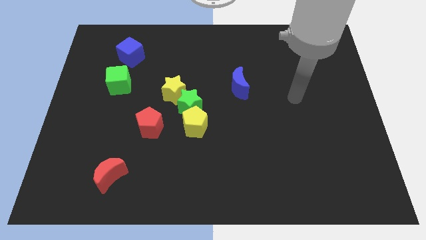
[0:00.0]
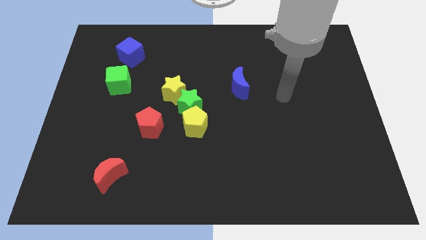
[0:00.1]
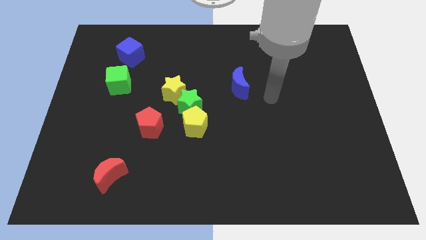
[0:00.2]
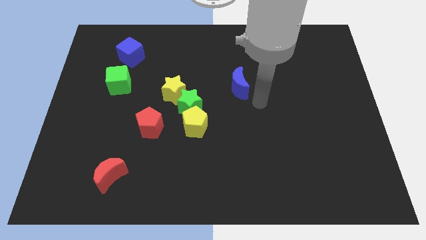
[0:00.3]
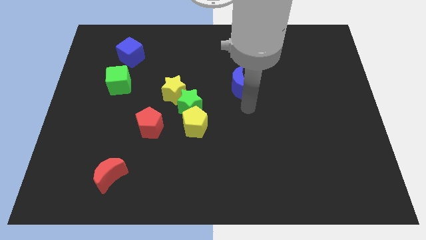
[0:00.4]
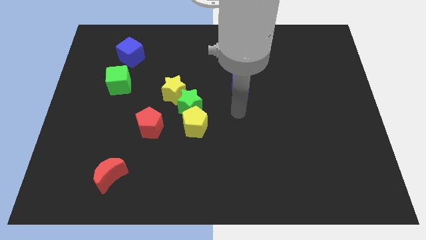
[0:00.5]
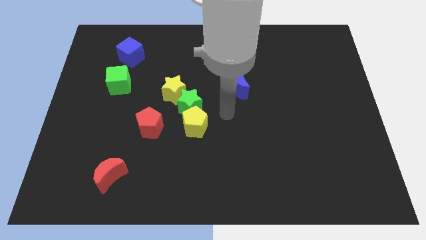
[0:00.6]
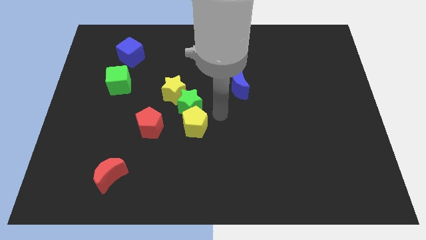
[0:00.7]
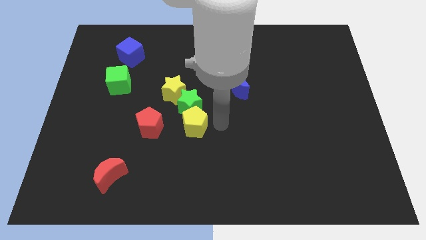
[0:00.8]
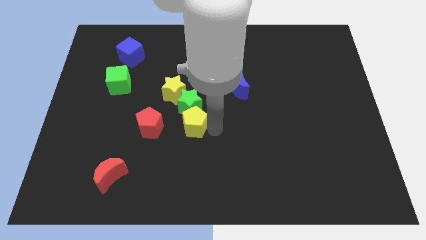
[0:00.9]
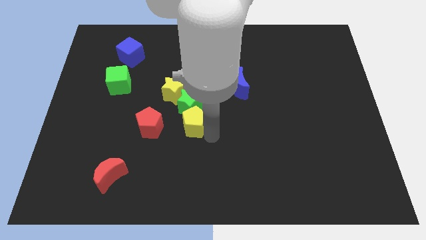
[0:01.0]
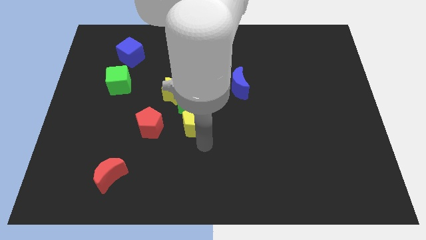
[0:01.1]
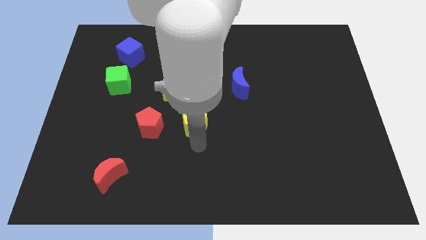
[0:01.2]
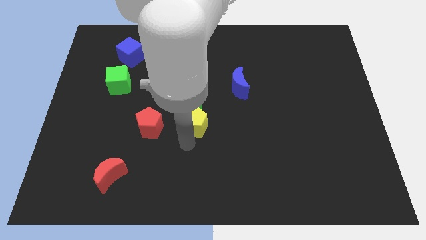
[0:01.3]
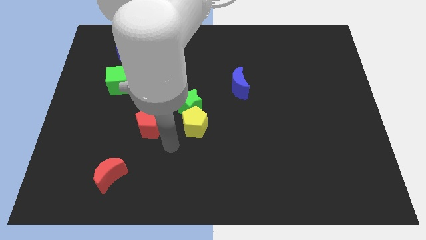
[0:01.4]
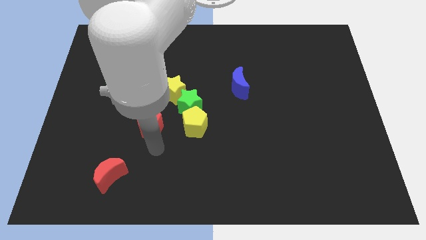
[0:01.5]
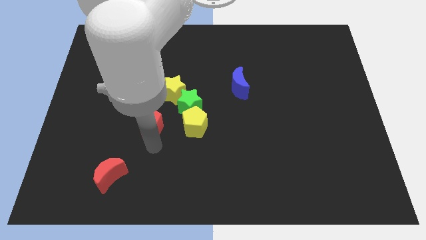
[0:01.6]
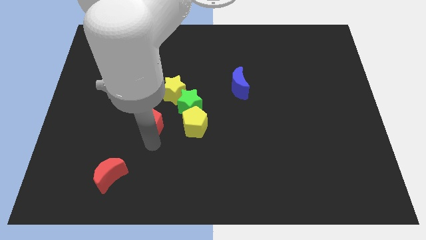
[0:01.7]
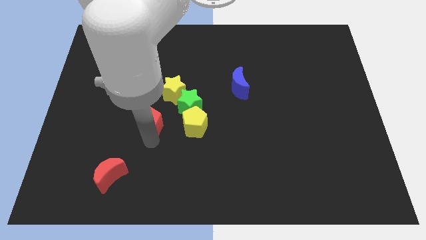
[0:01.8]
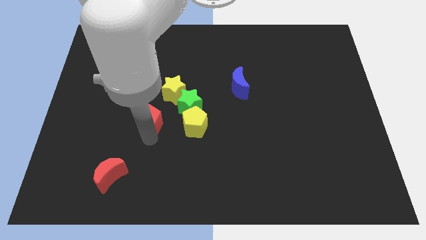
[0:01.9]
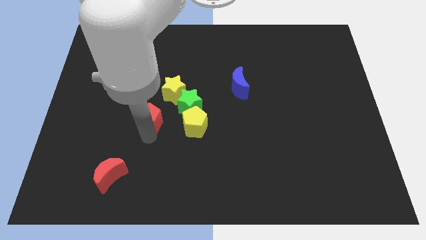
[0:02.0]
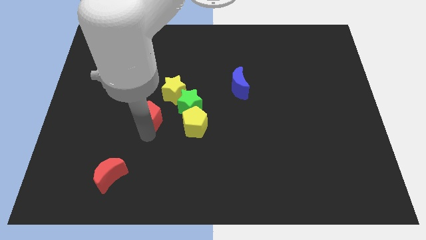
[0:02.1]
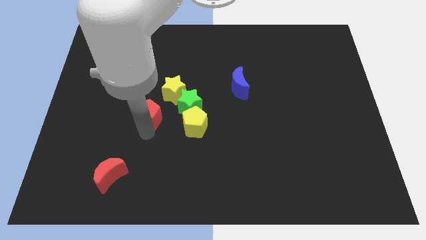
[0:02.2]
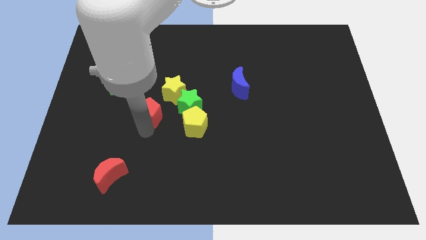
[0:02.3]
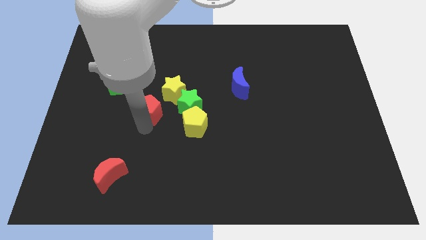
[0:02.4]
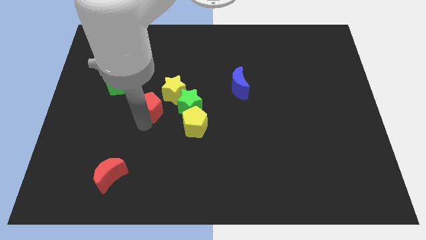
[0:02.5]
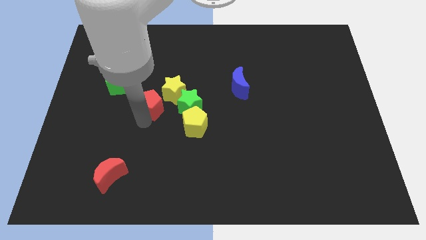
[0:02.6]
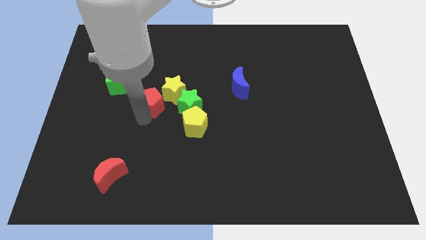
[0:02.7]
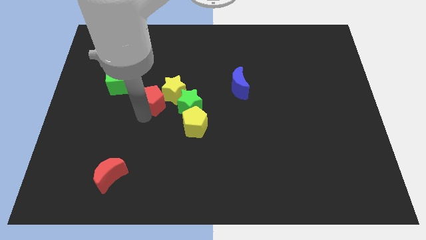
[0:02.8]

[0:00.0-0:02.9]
move the red pentagon a little bit up

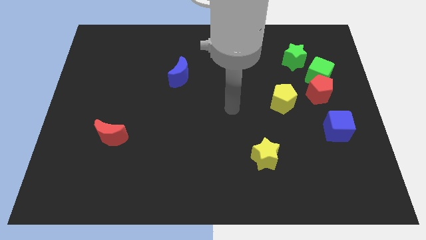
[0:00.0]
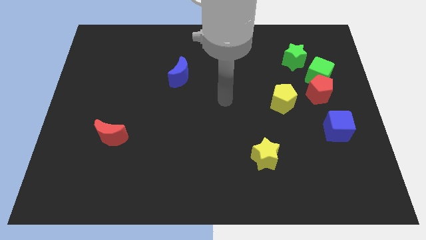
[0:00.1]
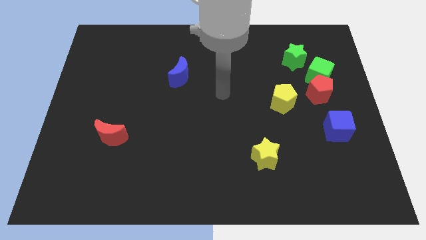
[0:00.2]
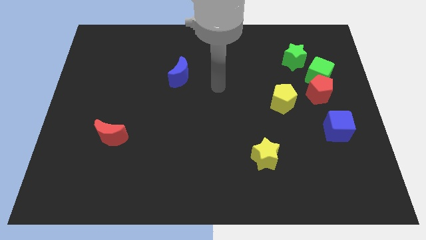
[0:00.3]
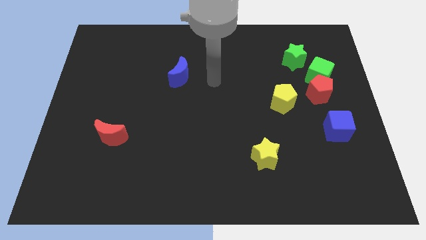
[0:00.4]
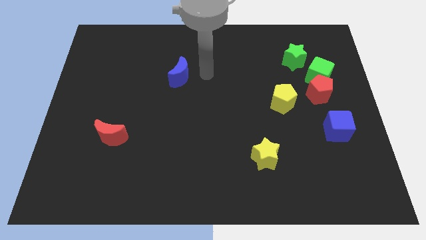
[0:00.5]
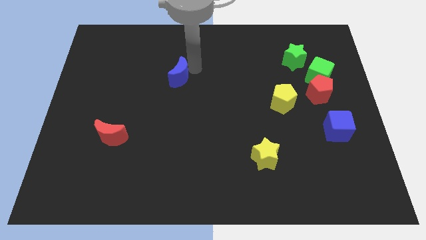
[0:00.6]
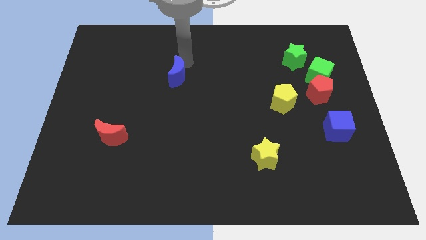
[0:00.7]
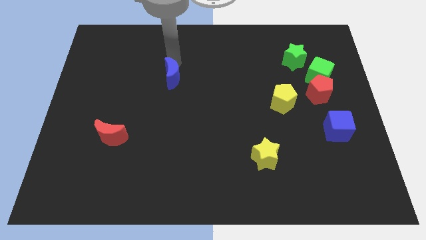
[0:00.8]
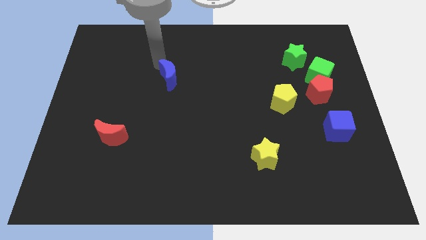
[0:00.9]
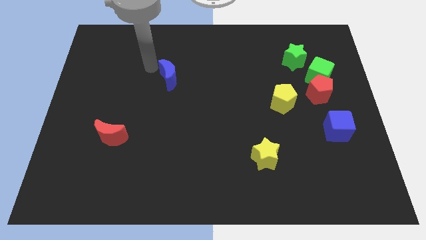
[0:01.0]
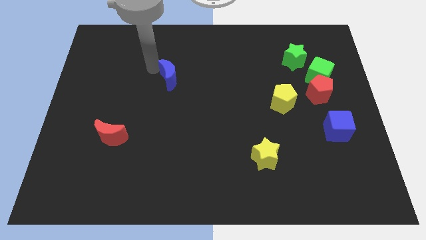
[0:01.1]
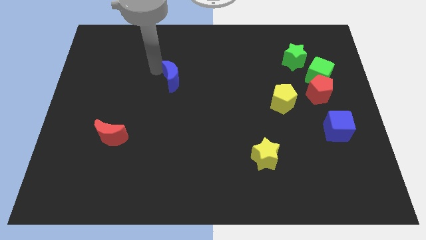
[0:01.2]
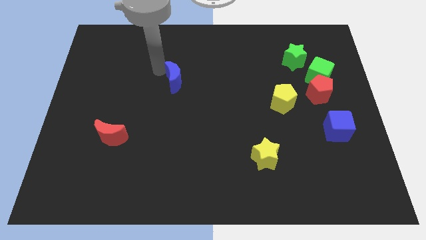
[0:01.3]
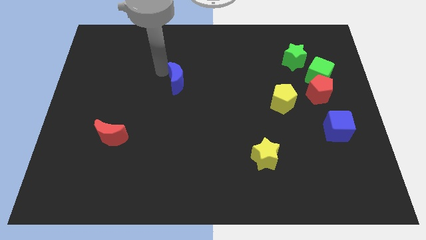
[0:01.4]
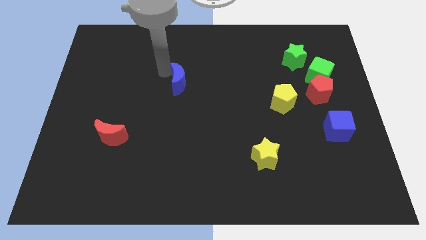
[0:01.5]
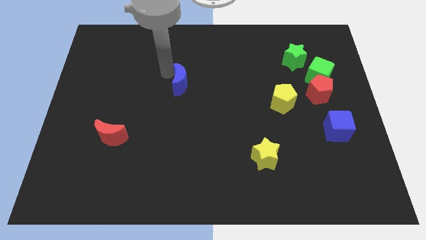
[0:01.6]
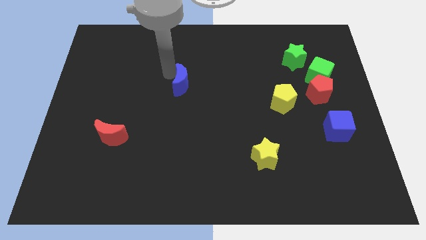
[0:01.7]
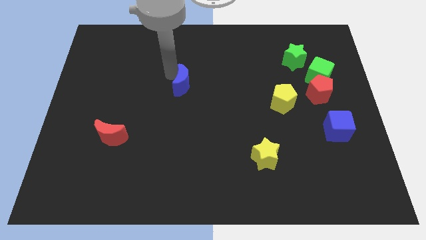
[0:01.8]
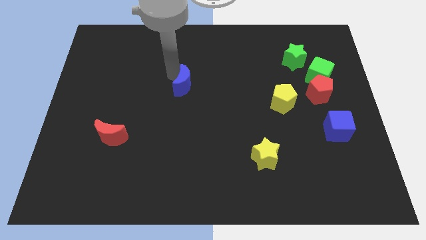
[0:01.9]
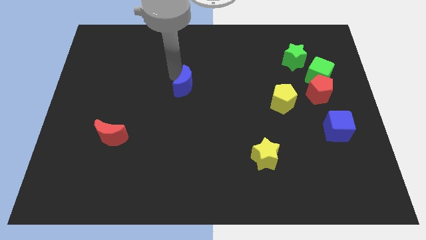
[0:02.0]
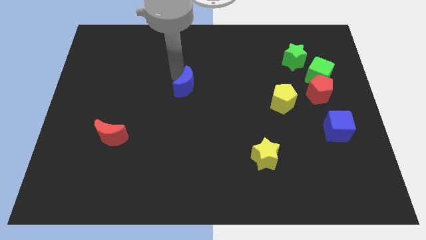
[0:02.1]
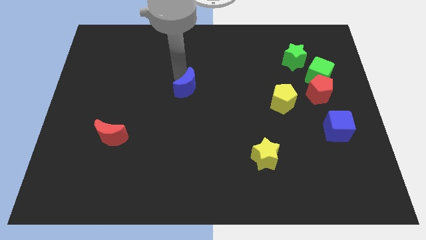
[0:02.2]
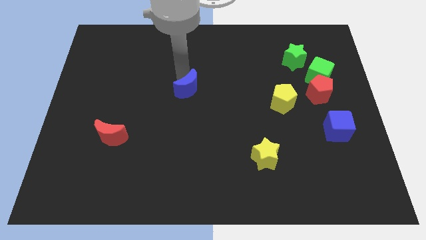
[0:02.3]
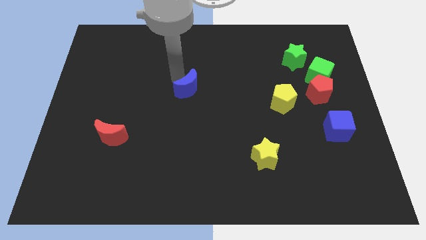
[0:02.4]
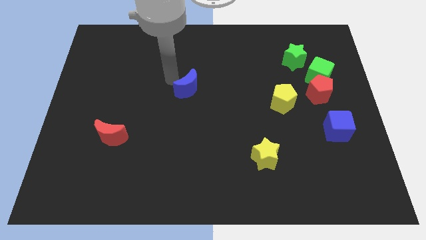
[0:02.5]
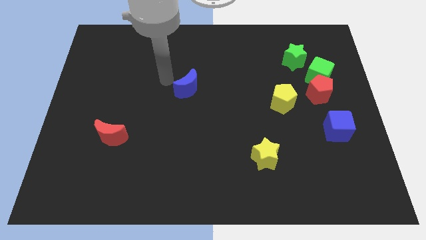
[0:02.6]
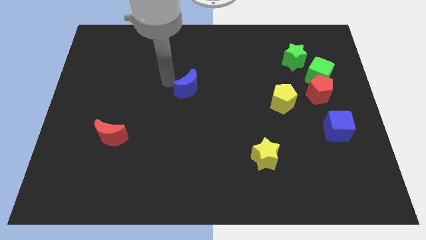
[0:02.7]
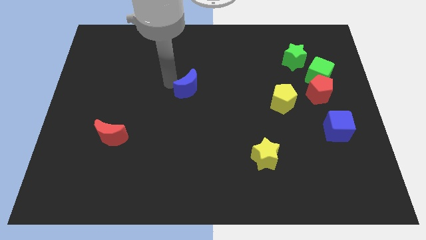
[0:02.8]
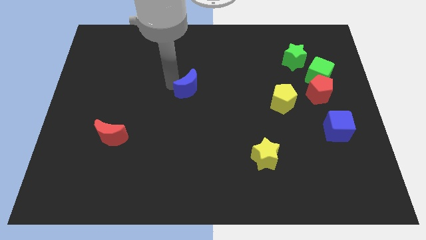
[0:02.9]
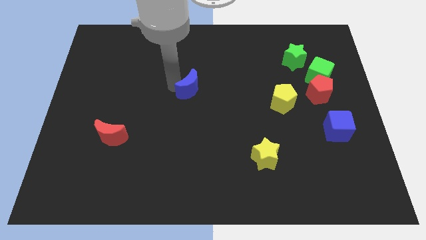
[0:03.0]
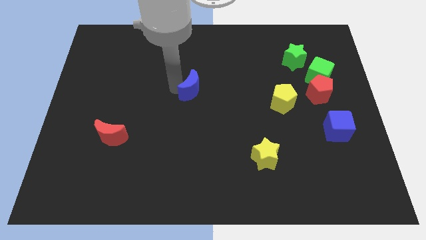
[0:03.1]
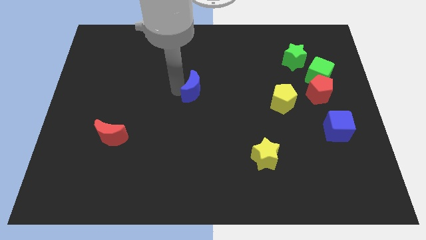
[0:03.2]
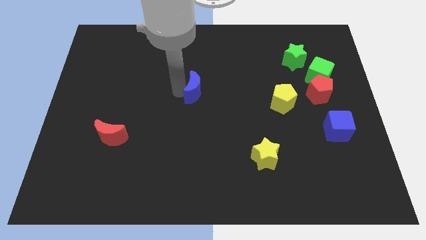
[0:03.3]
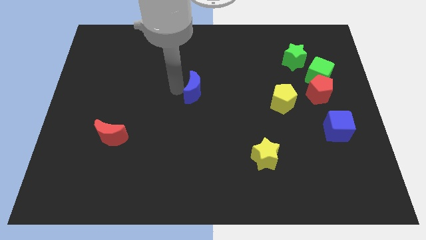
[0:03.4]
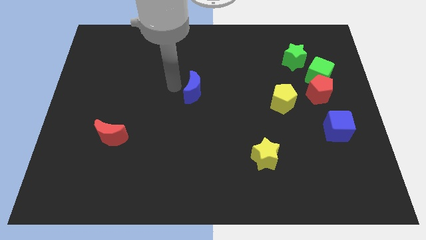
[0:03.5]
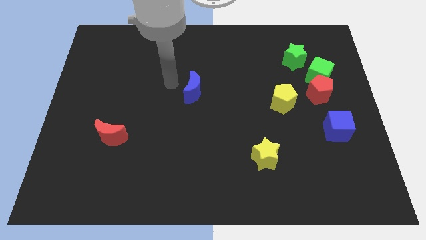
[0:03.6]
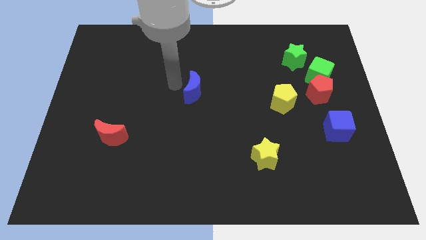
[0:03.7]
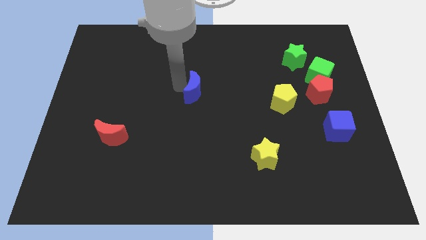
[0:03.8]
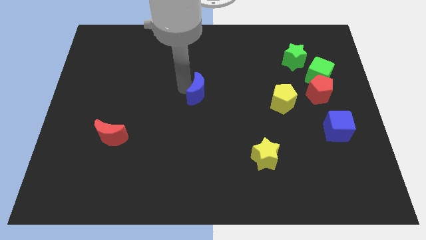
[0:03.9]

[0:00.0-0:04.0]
slide the blue moon a little bit down and to the right

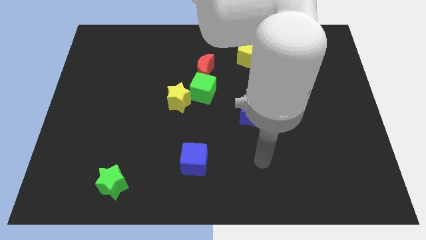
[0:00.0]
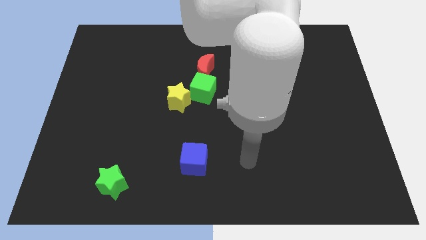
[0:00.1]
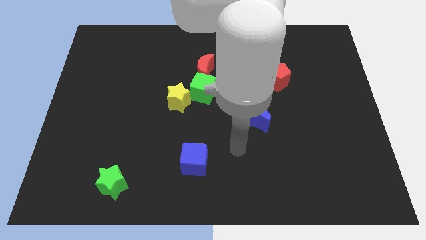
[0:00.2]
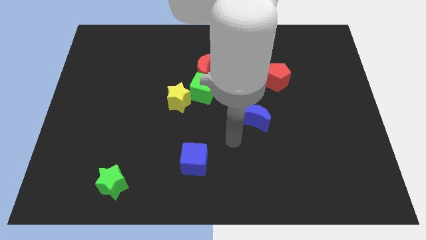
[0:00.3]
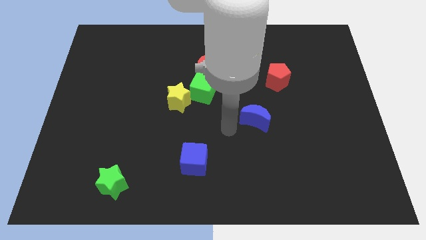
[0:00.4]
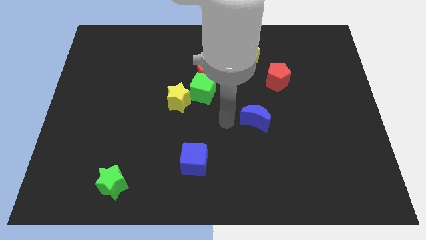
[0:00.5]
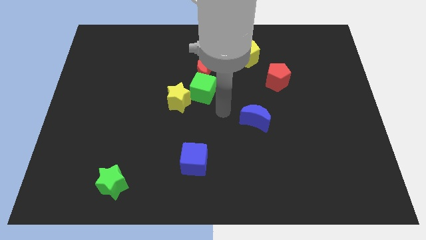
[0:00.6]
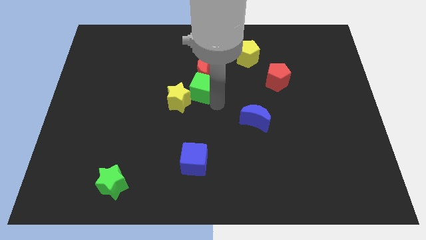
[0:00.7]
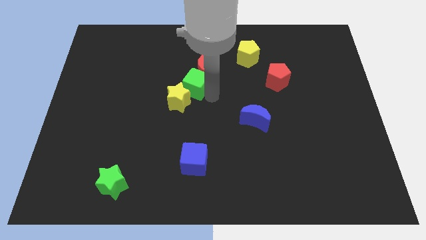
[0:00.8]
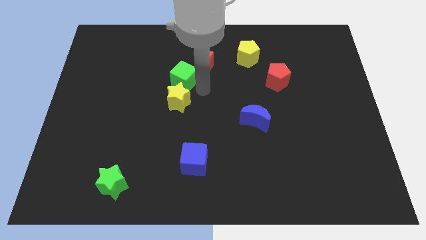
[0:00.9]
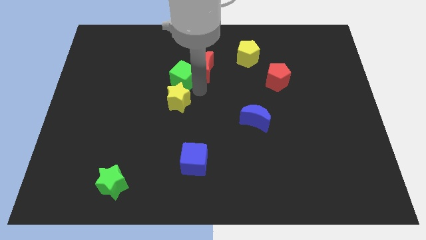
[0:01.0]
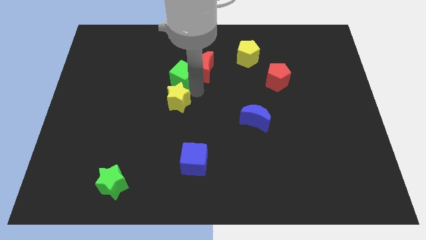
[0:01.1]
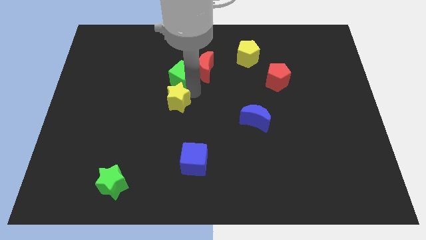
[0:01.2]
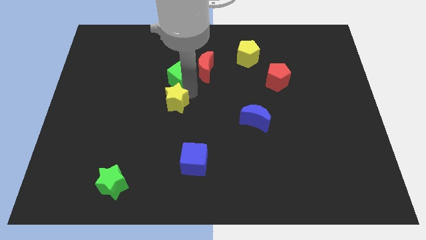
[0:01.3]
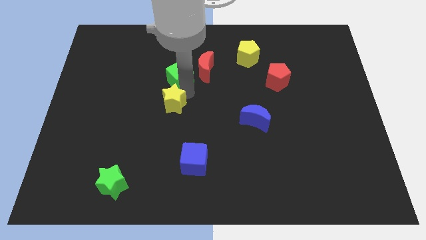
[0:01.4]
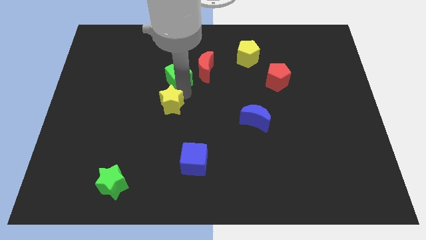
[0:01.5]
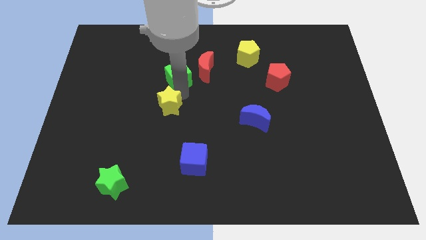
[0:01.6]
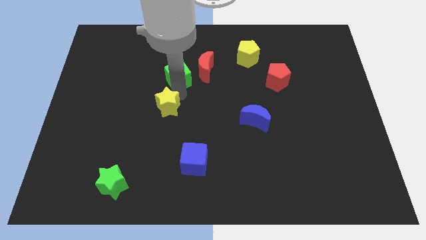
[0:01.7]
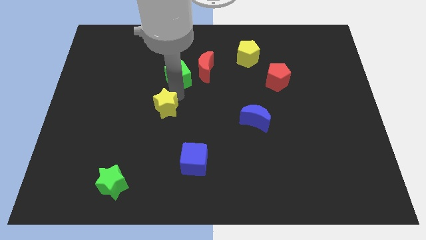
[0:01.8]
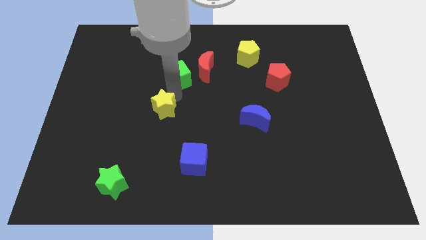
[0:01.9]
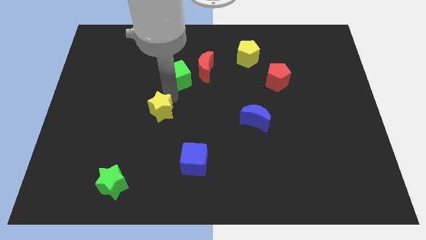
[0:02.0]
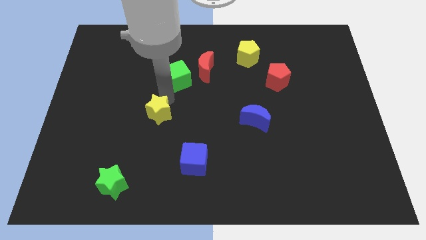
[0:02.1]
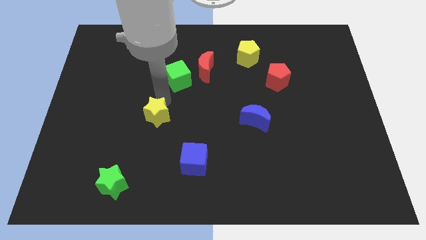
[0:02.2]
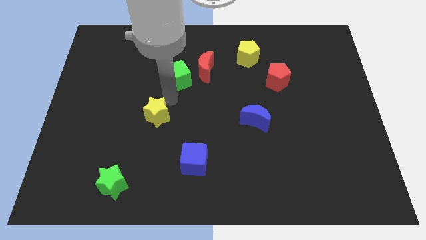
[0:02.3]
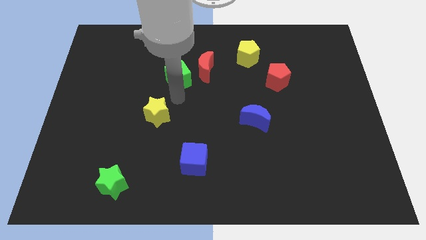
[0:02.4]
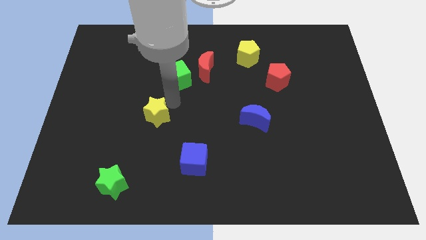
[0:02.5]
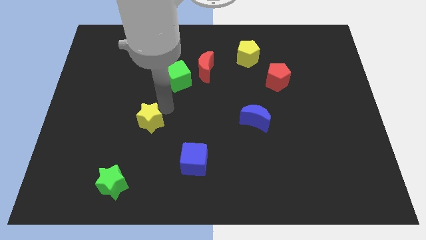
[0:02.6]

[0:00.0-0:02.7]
push the yellow star a little bit downwards and left diagonally
